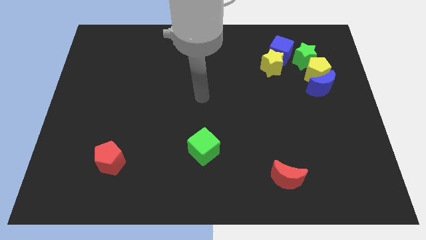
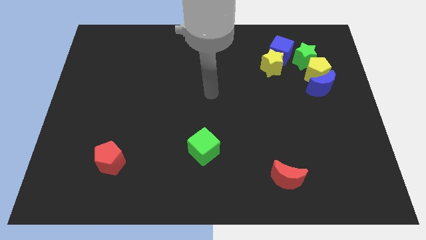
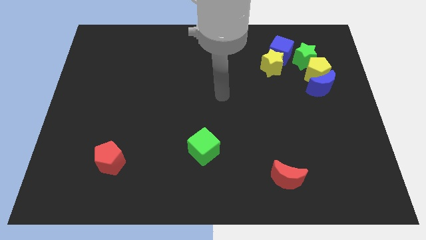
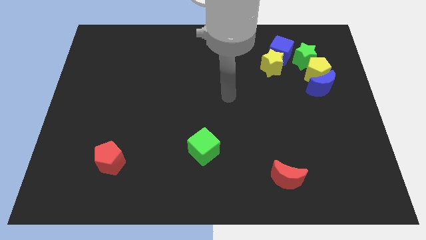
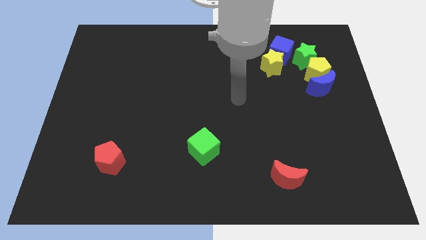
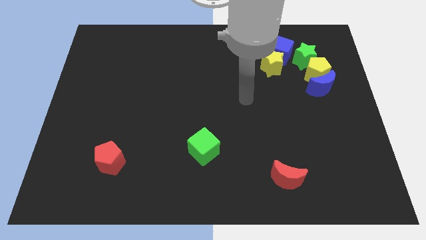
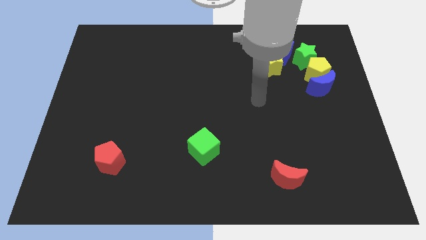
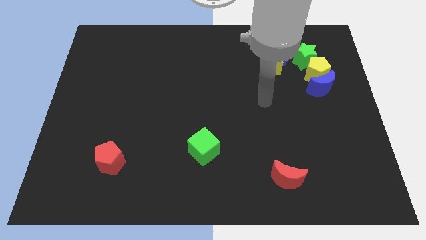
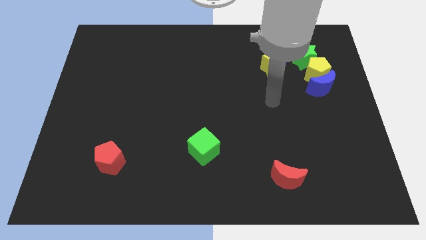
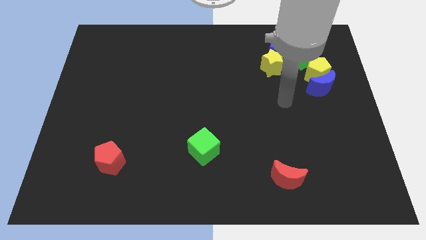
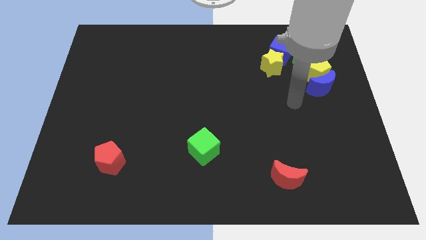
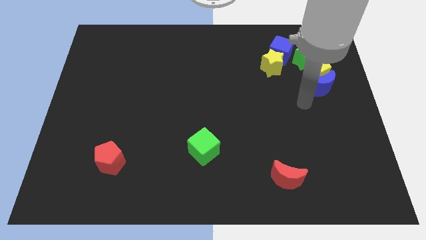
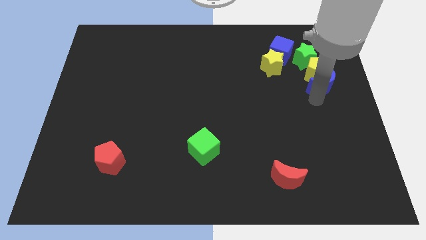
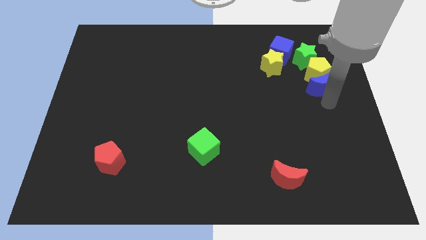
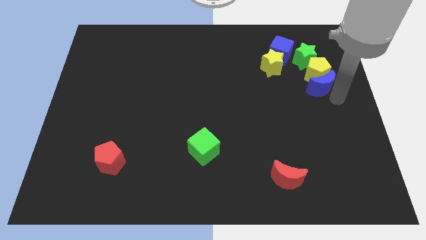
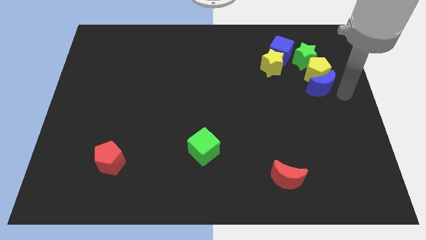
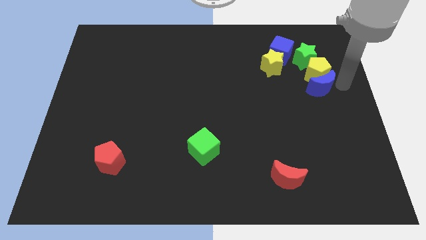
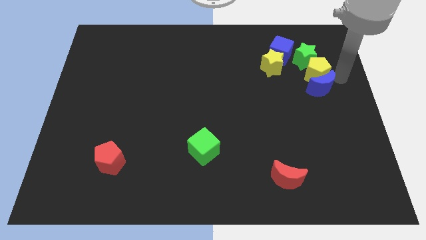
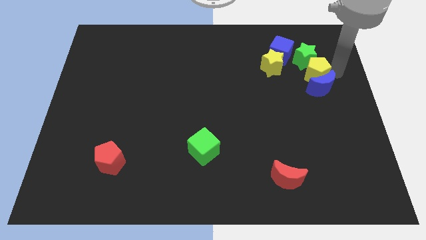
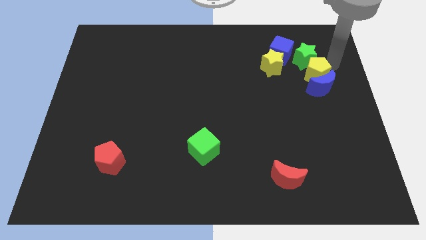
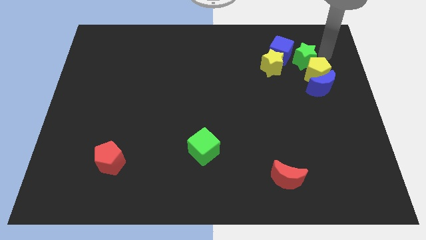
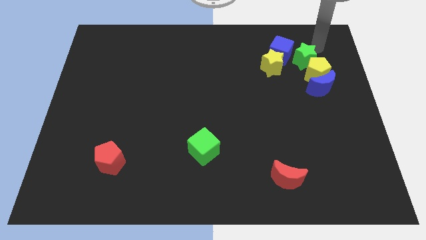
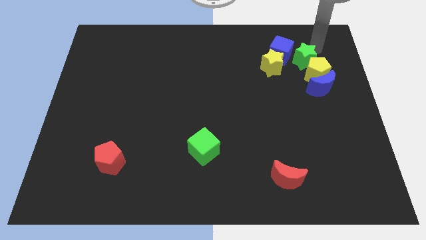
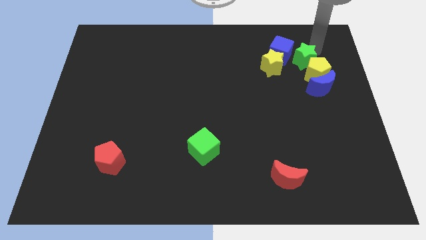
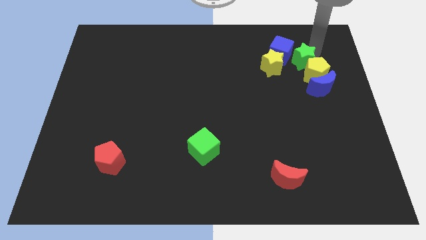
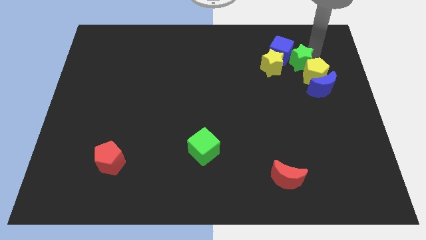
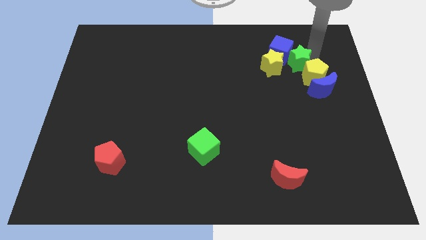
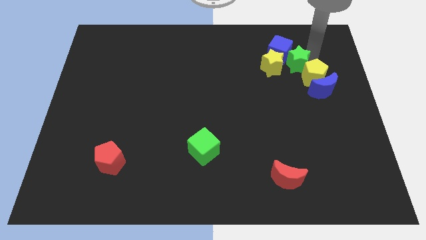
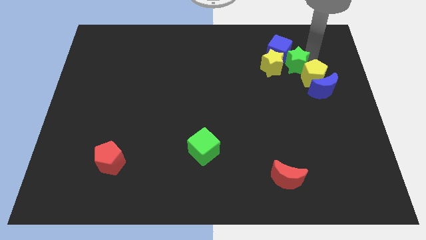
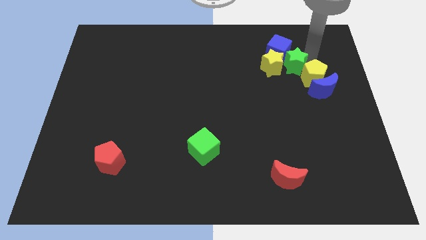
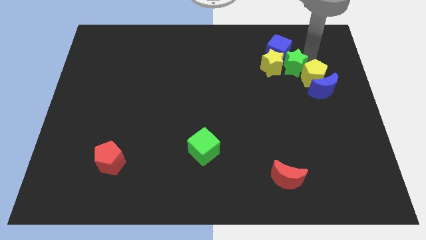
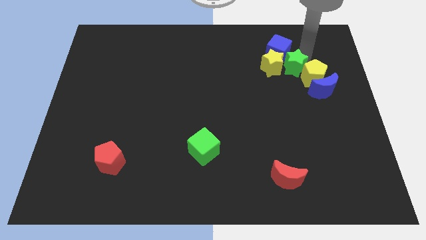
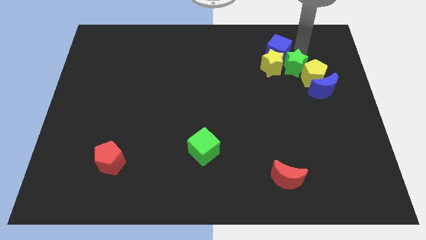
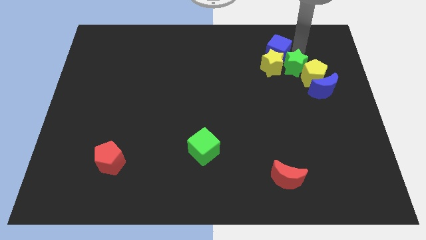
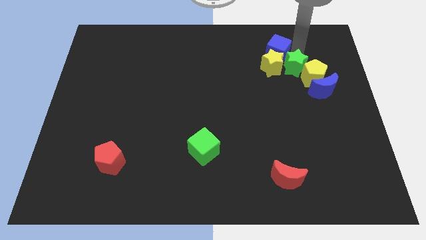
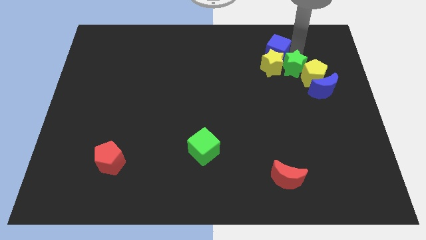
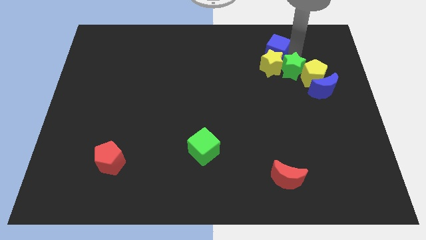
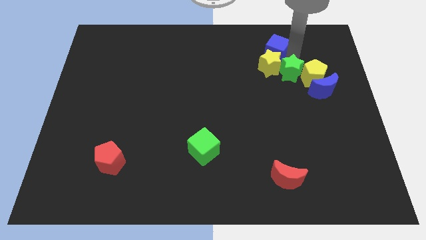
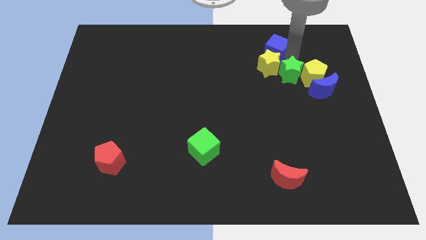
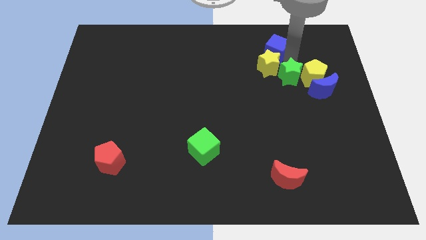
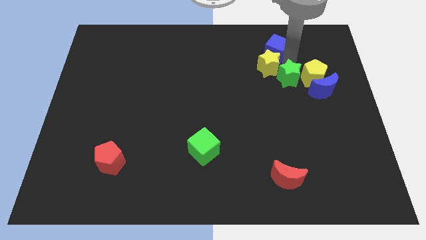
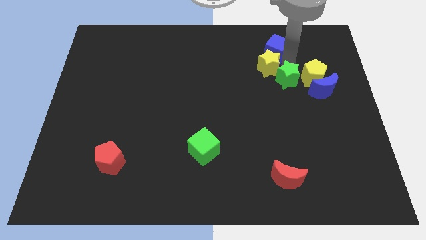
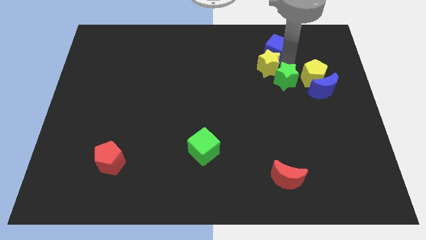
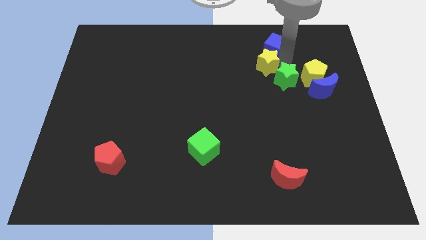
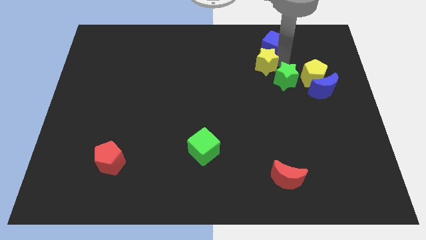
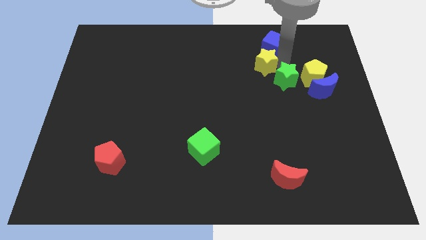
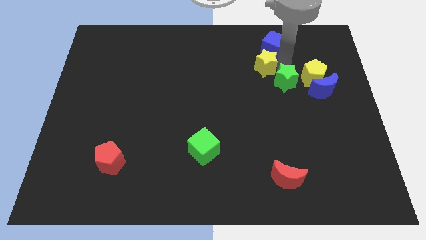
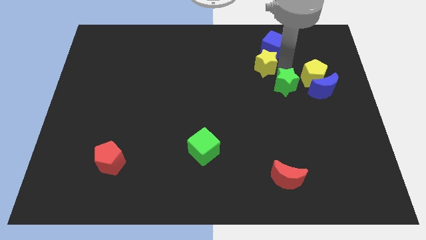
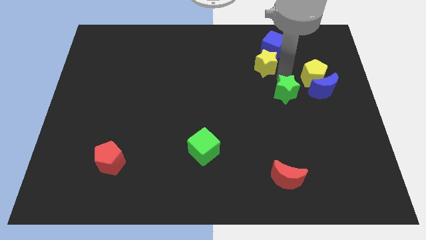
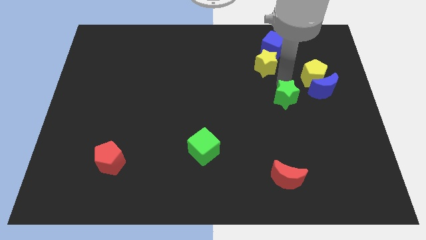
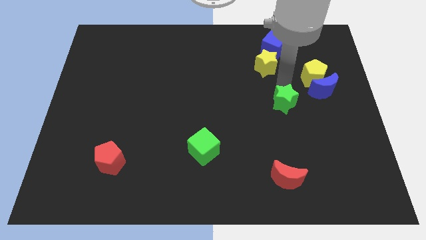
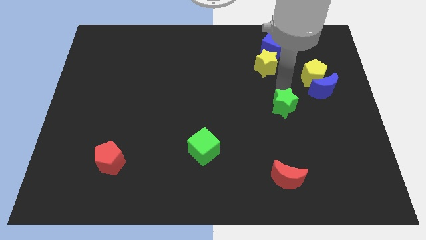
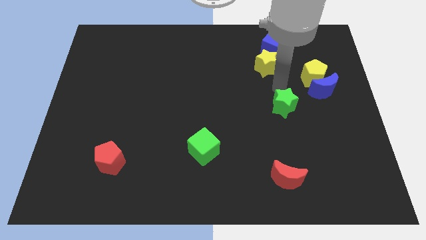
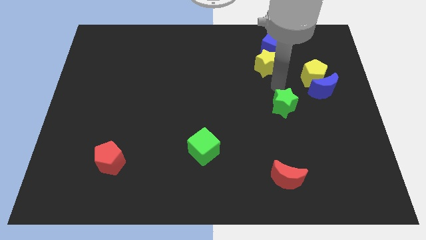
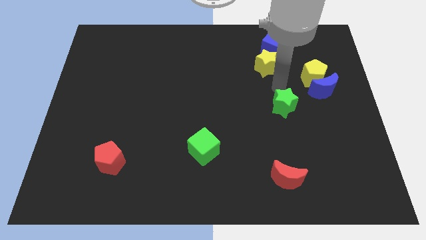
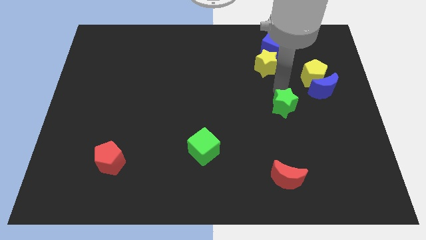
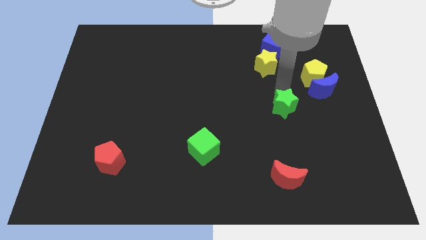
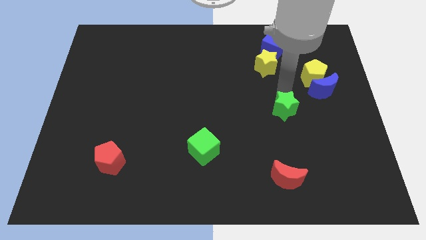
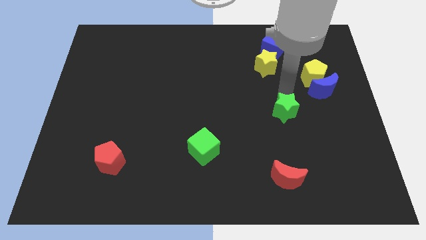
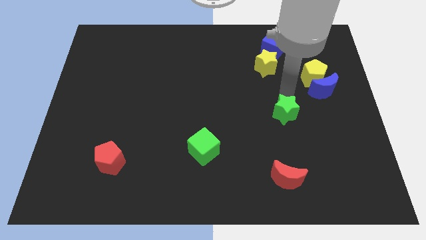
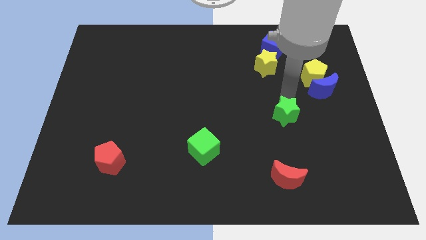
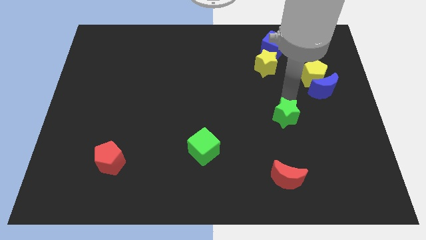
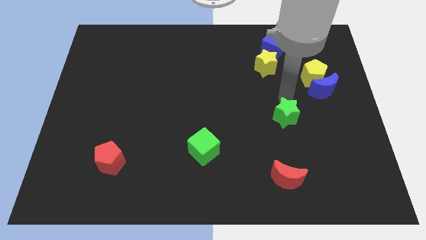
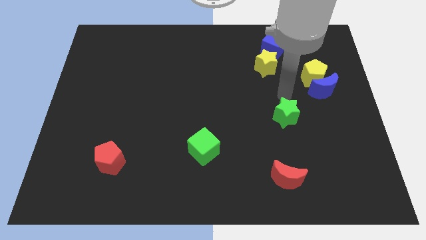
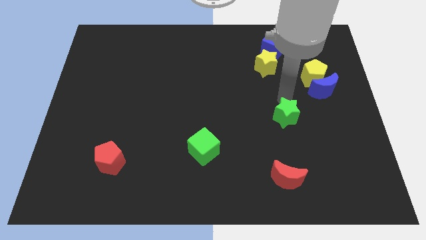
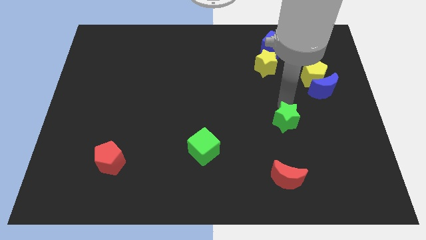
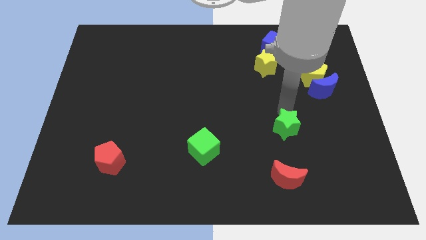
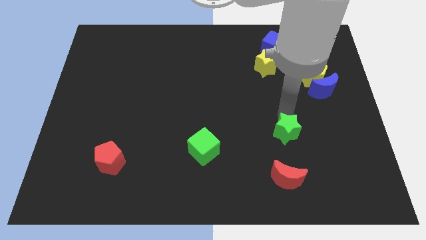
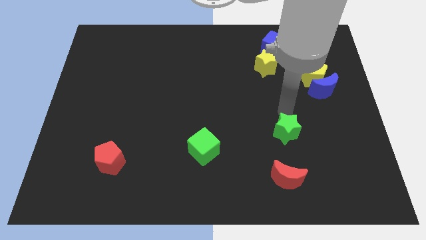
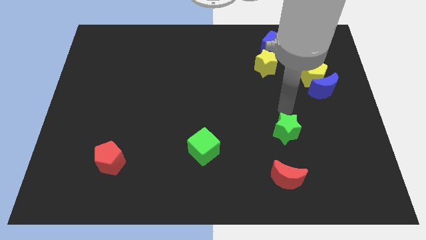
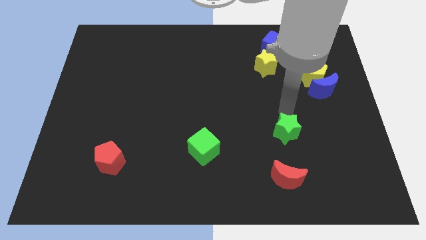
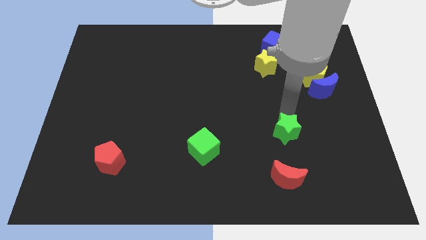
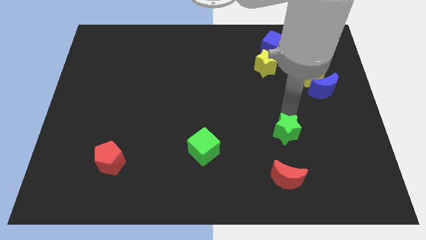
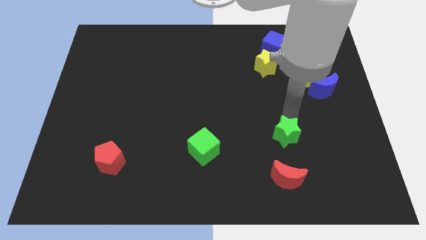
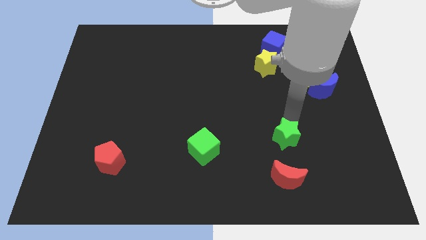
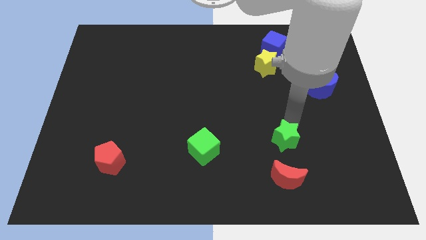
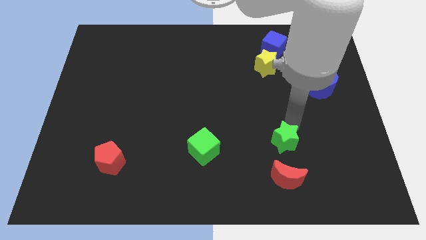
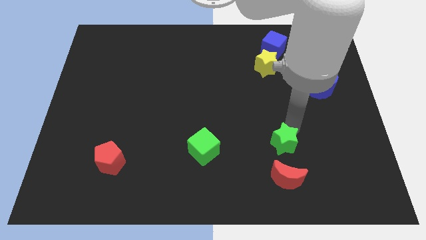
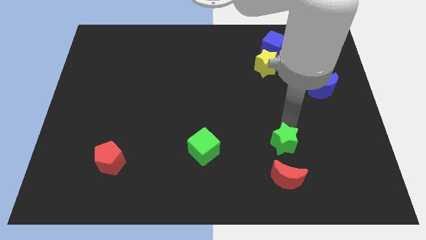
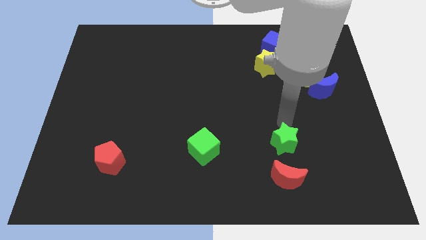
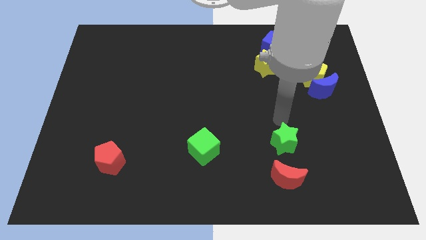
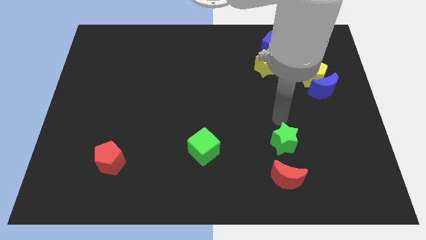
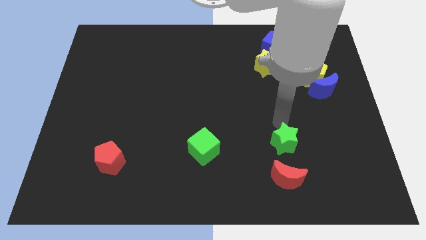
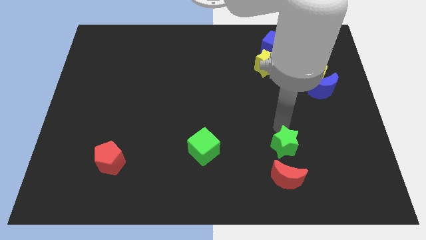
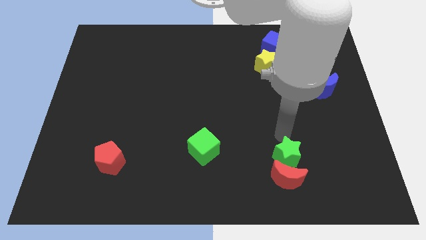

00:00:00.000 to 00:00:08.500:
move the green star close to the red moon

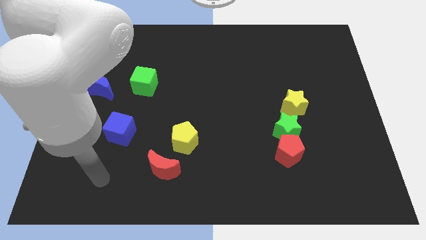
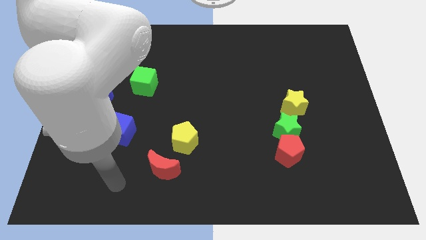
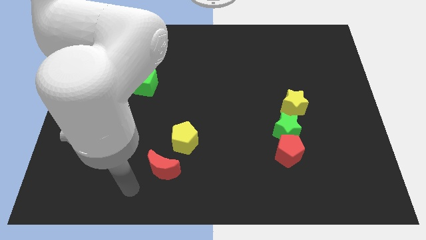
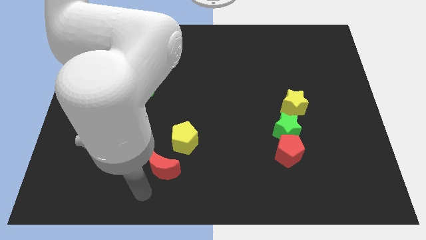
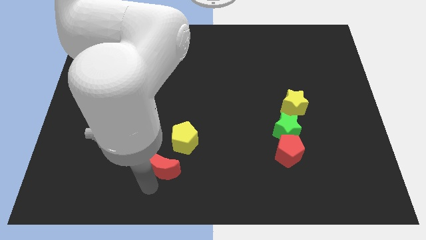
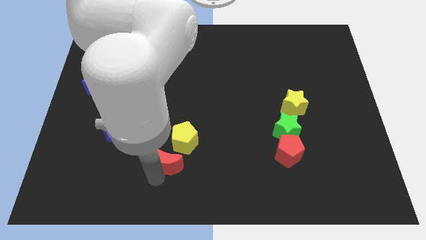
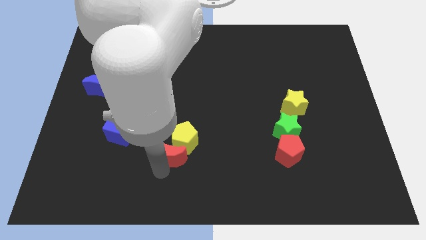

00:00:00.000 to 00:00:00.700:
slide the red moon close to the yellow pentagon
